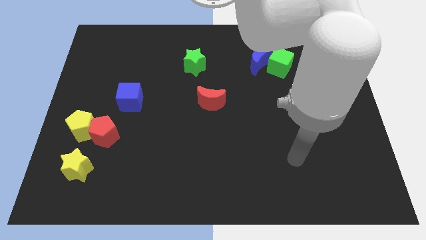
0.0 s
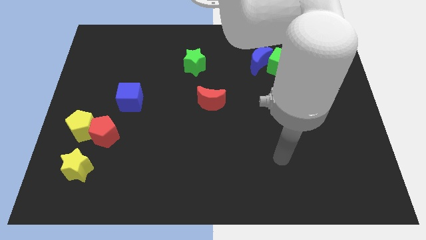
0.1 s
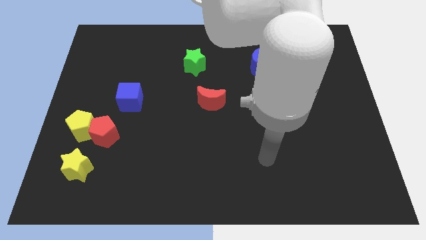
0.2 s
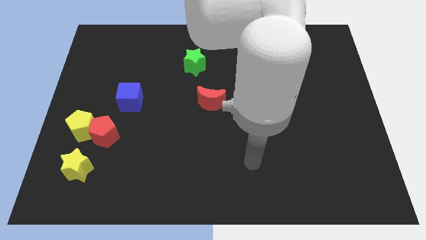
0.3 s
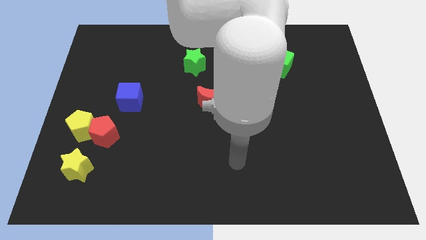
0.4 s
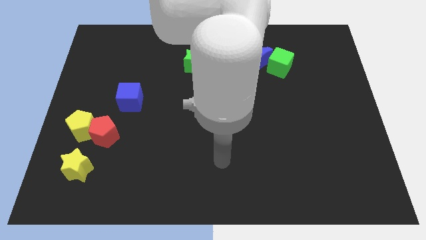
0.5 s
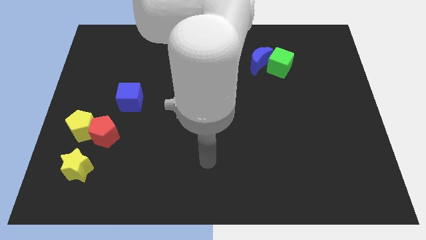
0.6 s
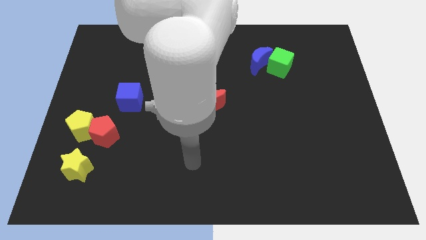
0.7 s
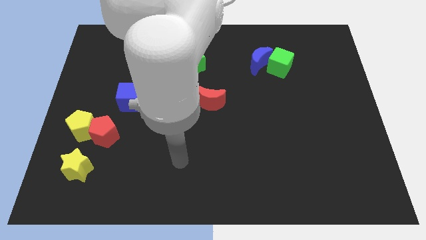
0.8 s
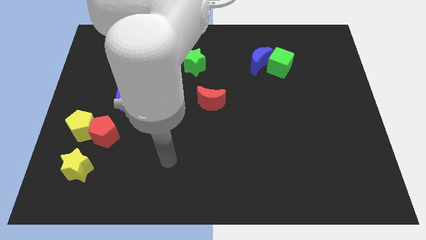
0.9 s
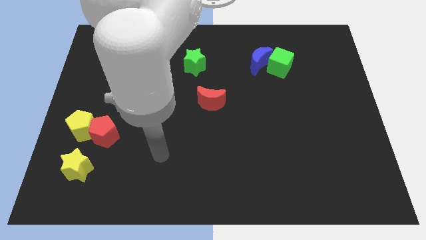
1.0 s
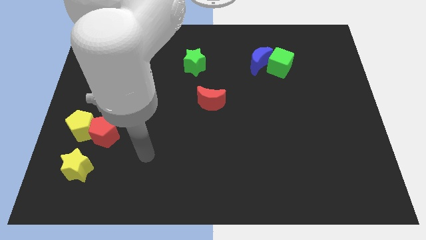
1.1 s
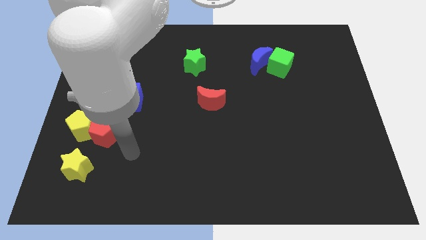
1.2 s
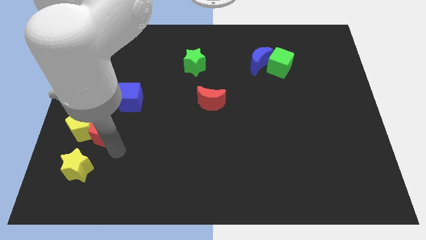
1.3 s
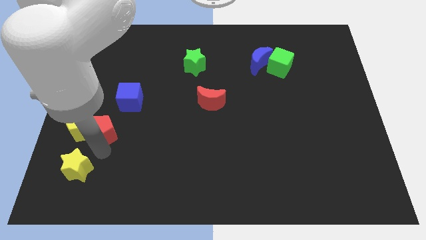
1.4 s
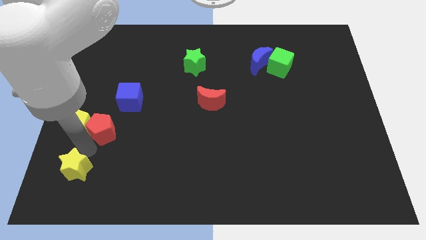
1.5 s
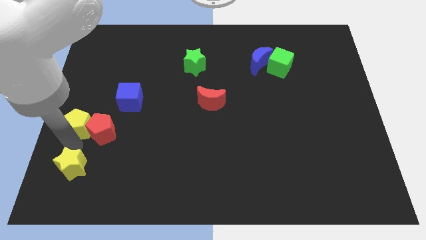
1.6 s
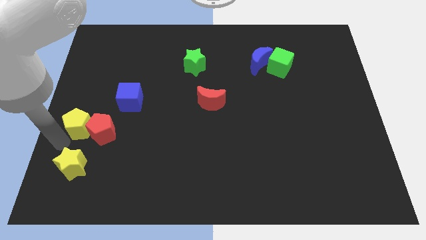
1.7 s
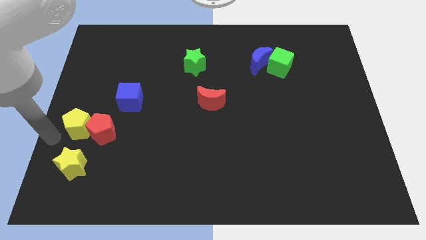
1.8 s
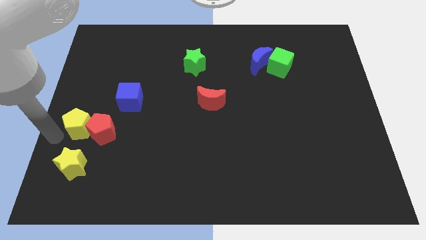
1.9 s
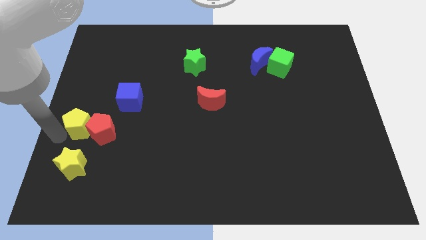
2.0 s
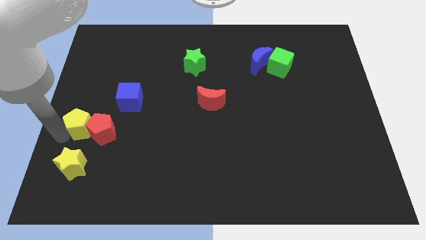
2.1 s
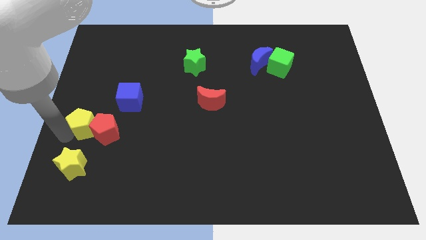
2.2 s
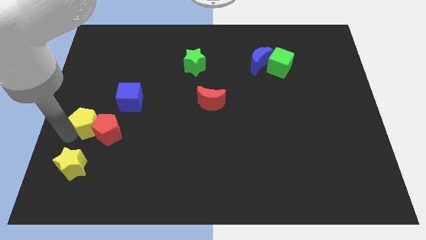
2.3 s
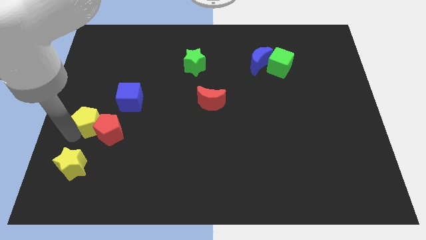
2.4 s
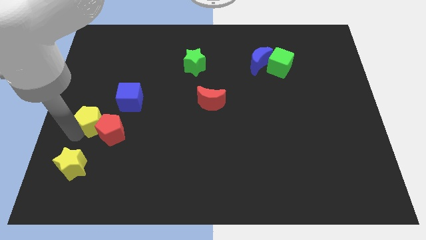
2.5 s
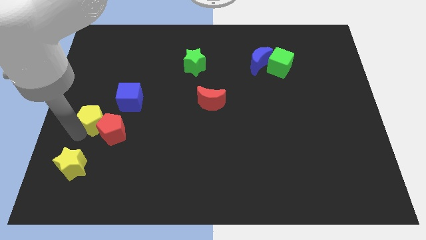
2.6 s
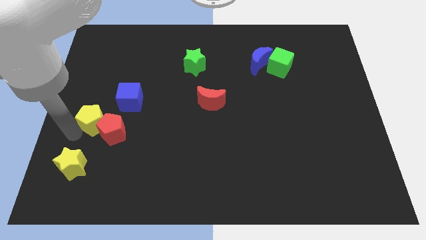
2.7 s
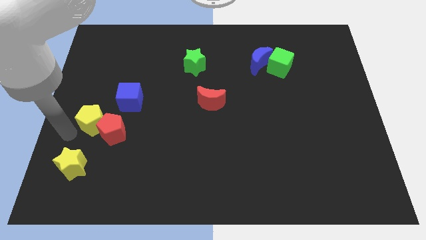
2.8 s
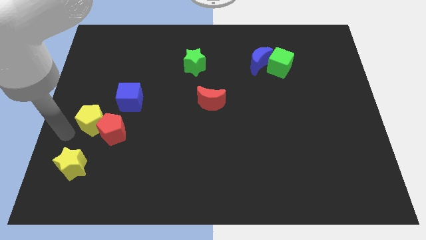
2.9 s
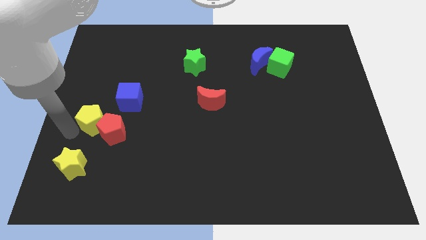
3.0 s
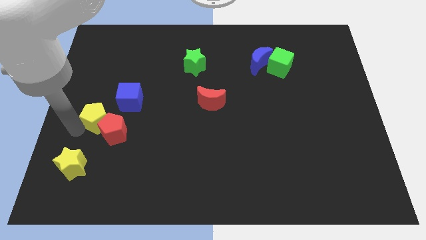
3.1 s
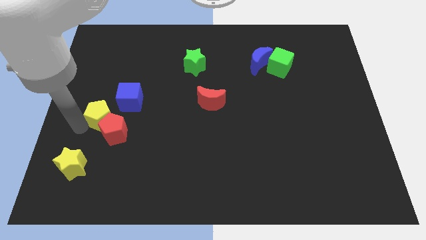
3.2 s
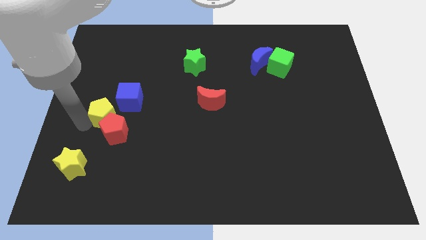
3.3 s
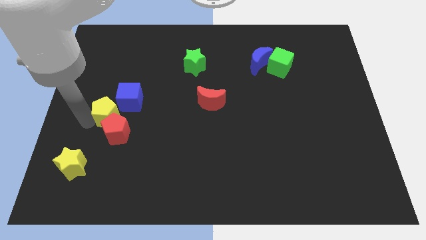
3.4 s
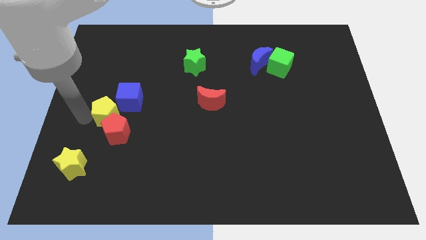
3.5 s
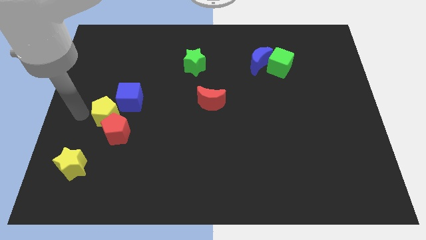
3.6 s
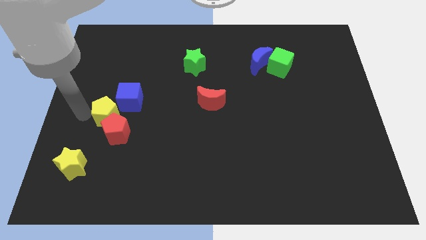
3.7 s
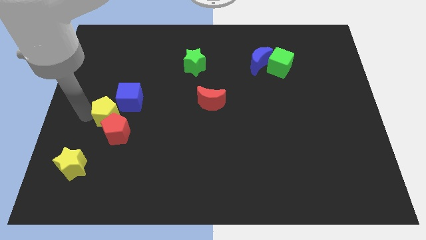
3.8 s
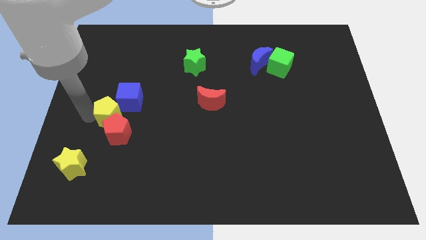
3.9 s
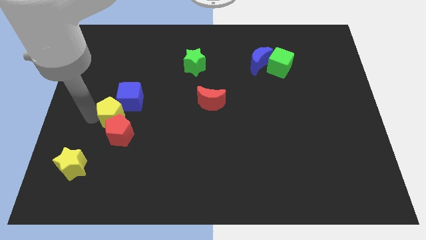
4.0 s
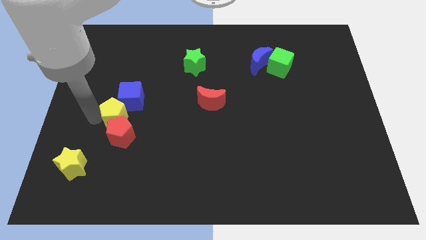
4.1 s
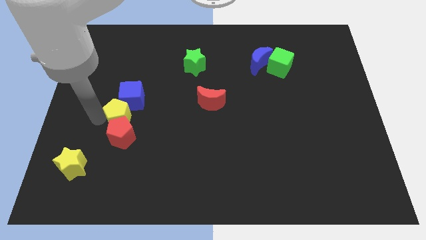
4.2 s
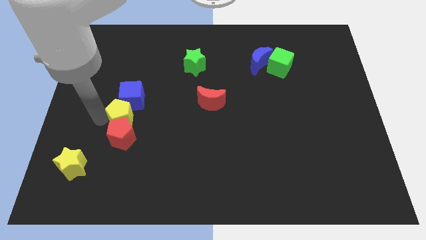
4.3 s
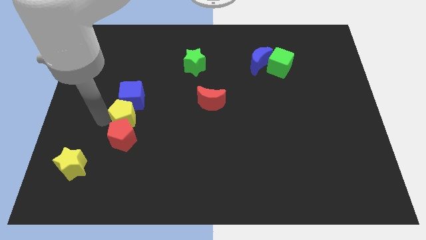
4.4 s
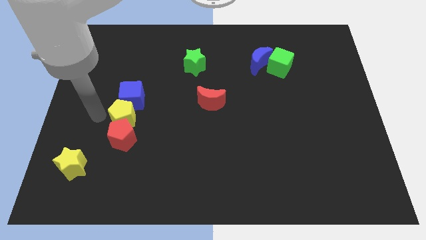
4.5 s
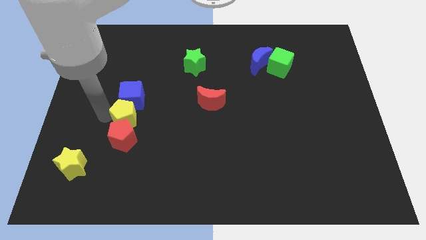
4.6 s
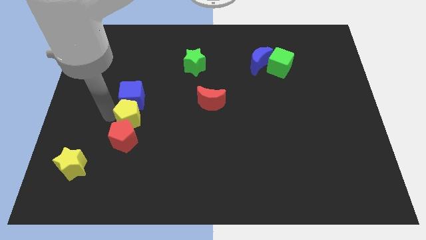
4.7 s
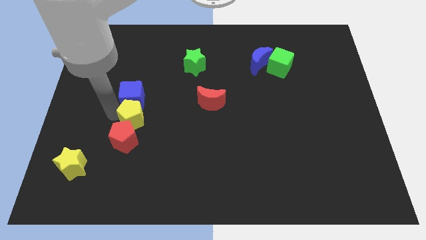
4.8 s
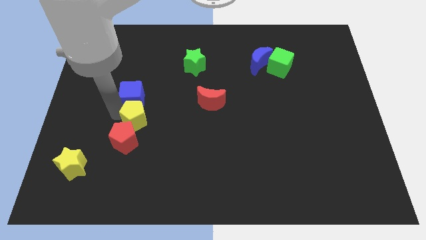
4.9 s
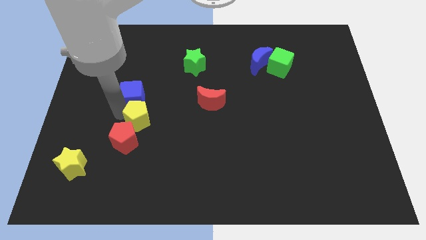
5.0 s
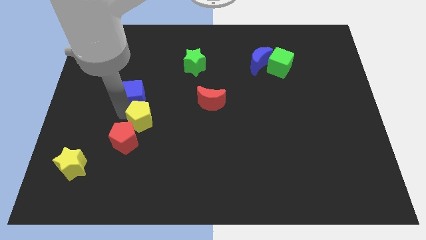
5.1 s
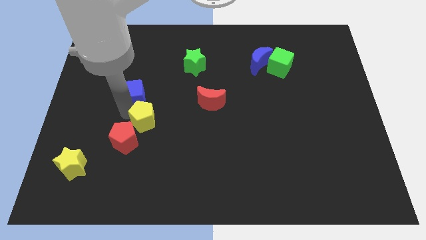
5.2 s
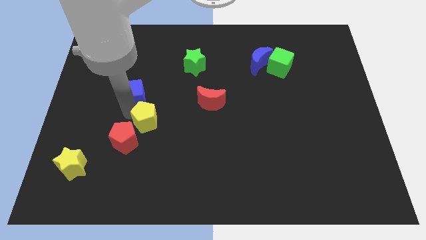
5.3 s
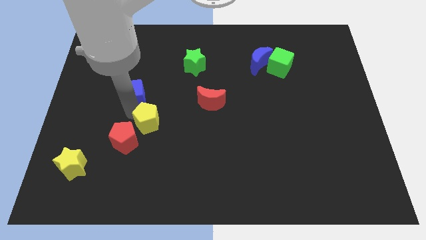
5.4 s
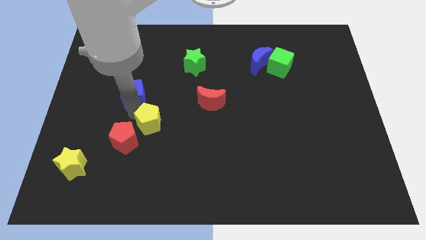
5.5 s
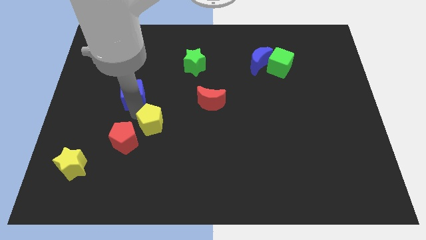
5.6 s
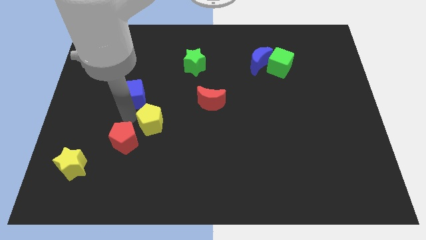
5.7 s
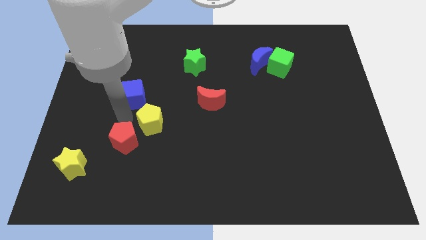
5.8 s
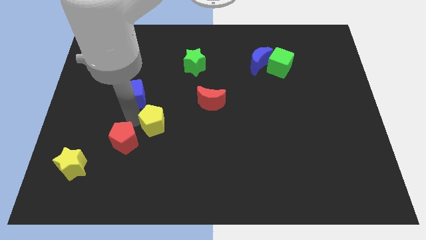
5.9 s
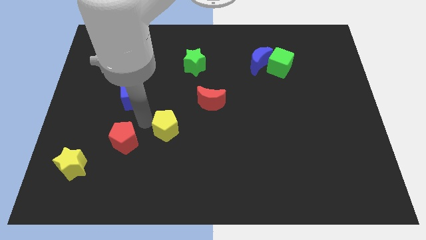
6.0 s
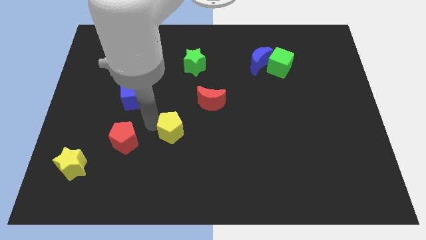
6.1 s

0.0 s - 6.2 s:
move the yellow pentagon to the right

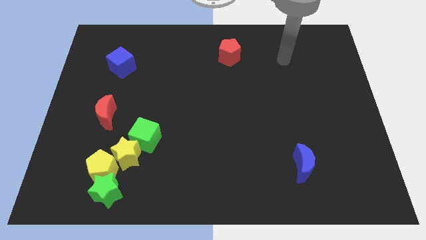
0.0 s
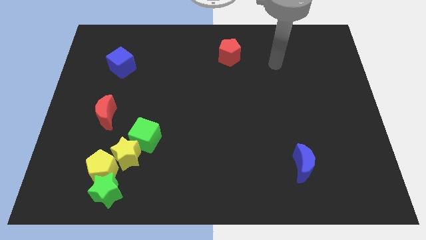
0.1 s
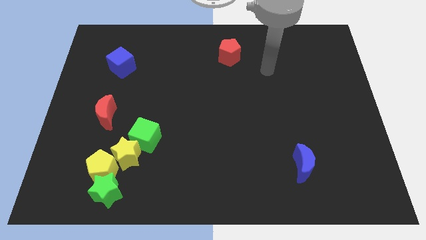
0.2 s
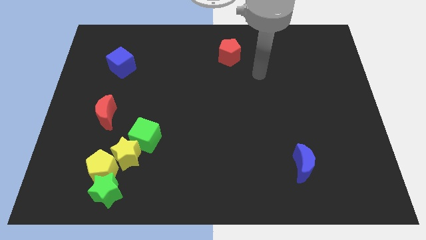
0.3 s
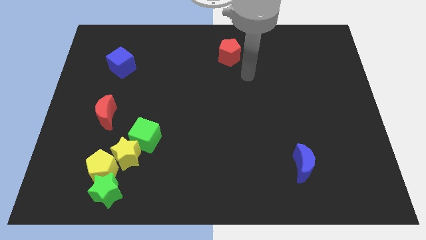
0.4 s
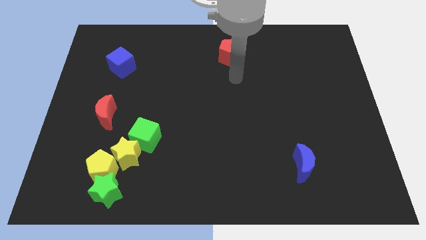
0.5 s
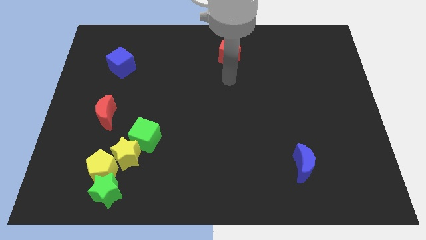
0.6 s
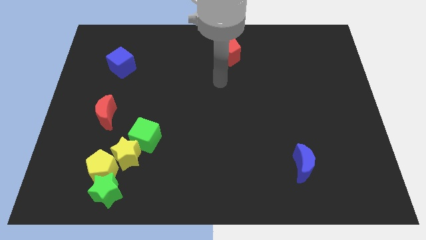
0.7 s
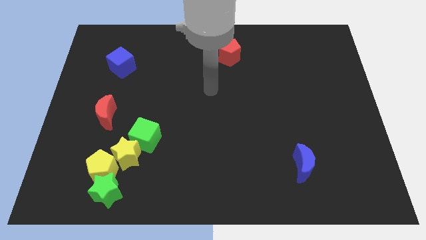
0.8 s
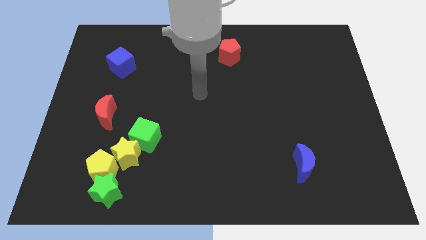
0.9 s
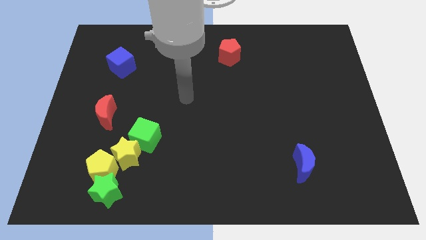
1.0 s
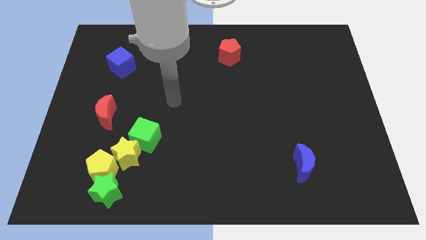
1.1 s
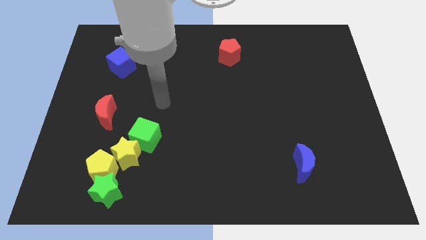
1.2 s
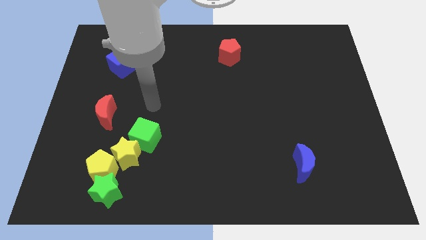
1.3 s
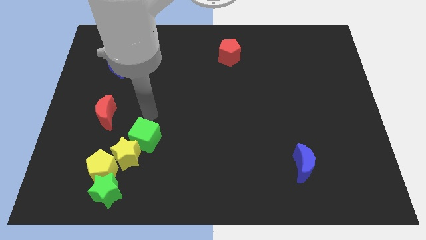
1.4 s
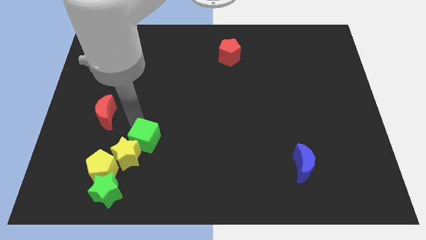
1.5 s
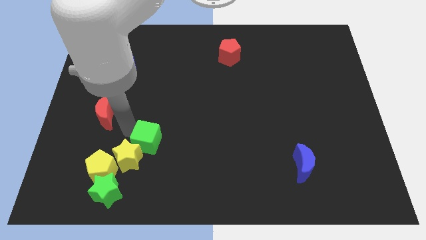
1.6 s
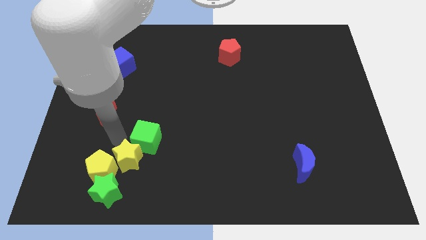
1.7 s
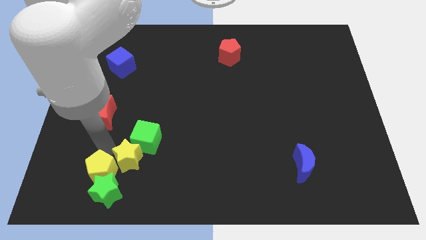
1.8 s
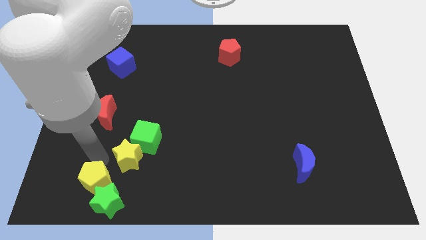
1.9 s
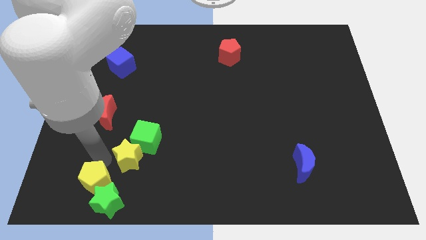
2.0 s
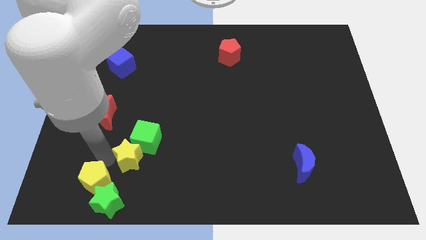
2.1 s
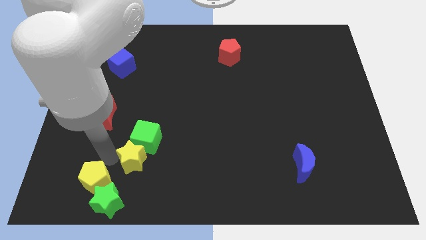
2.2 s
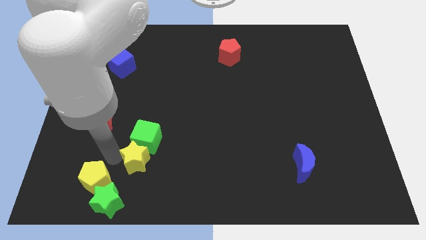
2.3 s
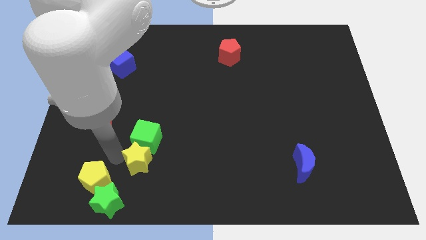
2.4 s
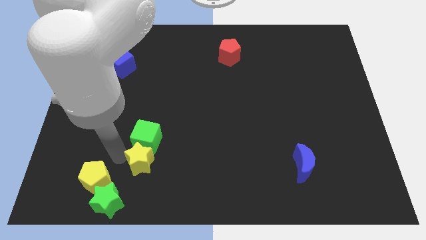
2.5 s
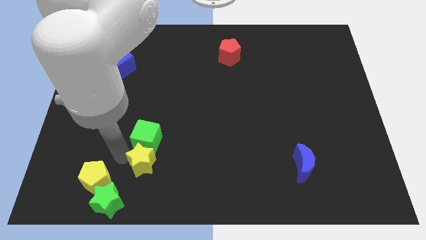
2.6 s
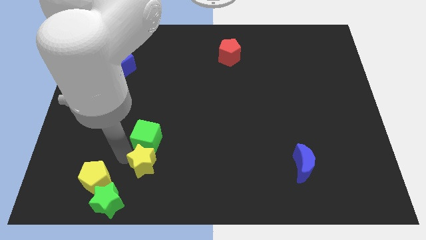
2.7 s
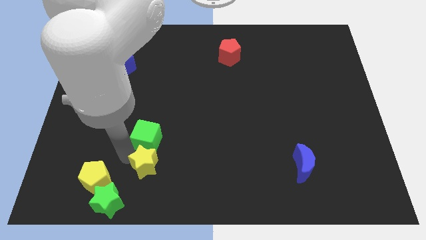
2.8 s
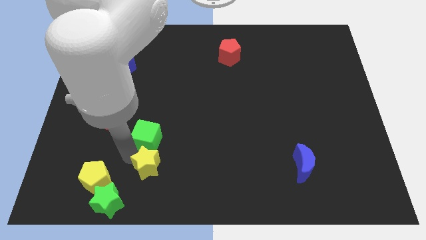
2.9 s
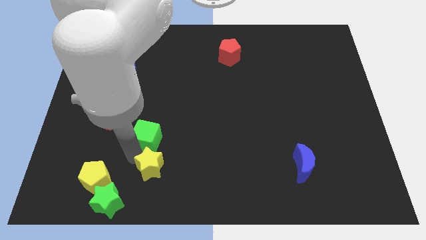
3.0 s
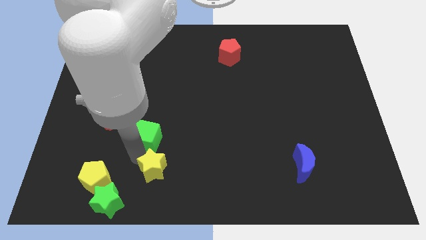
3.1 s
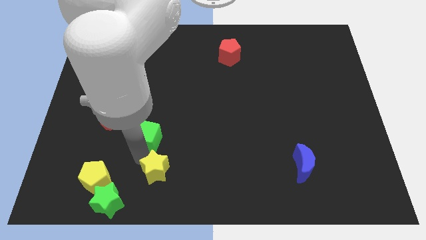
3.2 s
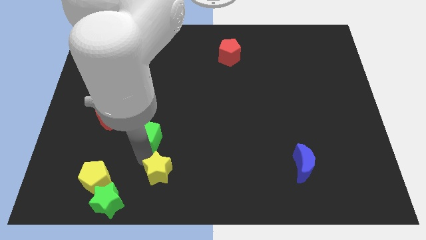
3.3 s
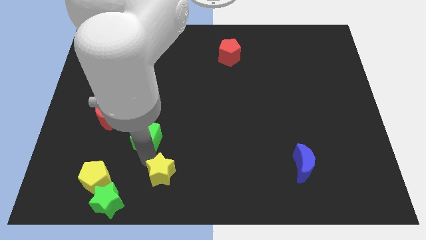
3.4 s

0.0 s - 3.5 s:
slightly move the yellow star to the right
